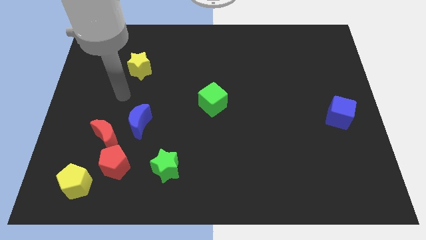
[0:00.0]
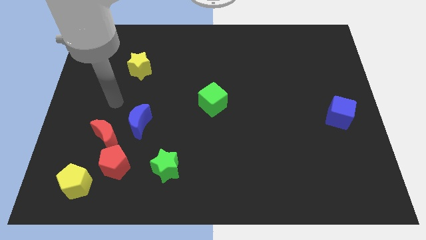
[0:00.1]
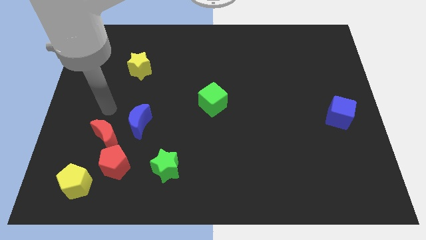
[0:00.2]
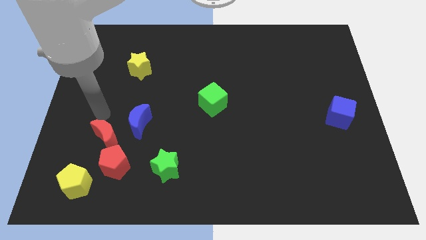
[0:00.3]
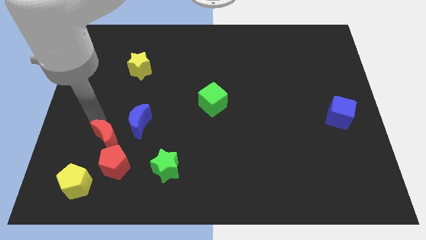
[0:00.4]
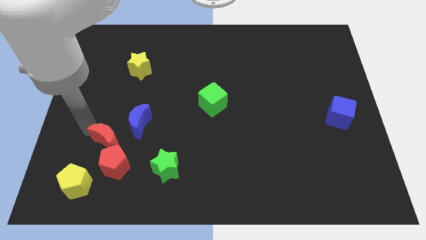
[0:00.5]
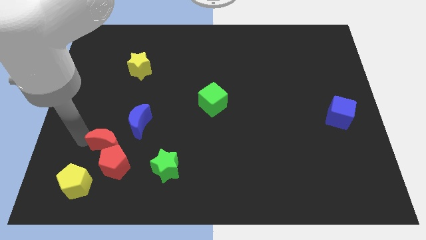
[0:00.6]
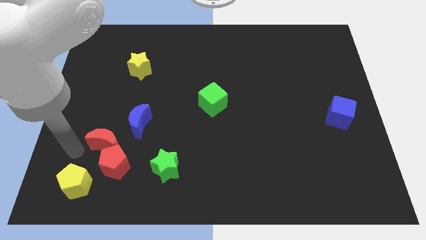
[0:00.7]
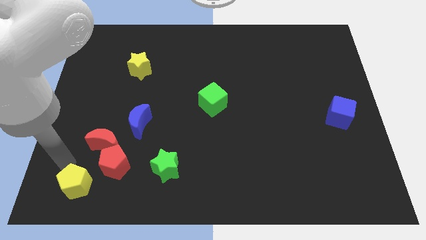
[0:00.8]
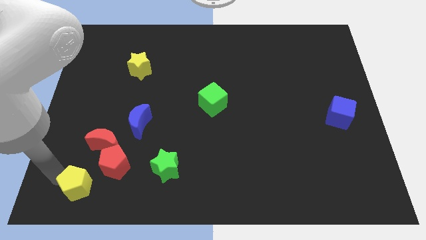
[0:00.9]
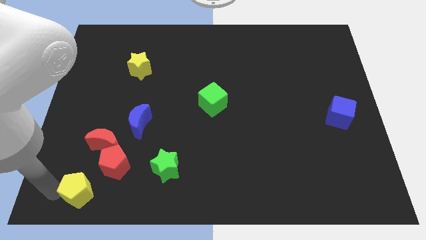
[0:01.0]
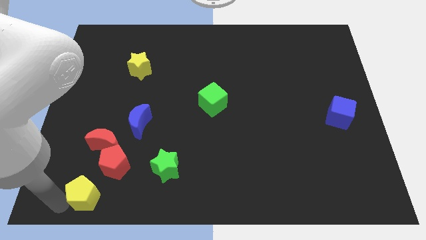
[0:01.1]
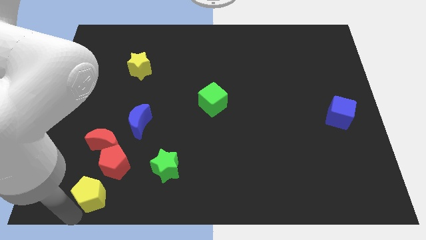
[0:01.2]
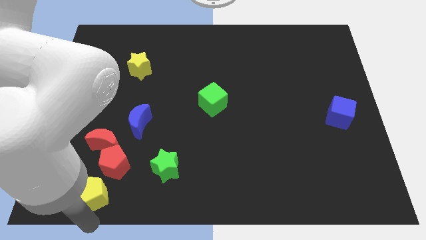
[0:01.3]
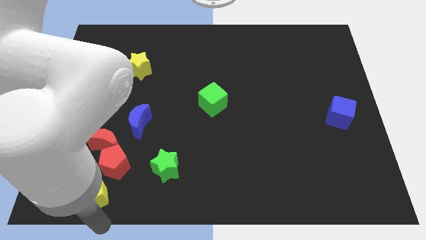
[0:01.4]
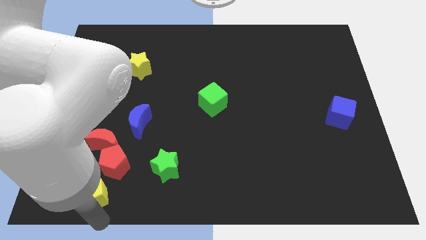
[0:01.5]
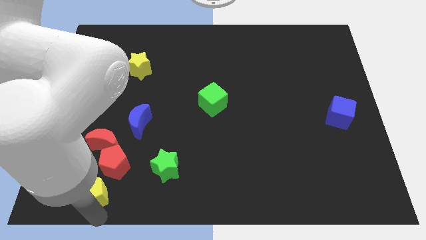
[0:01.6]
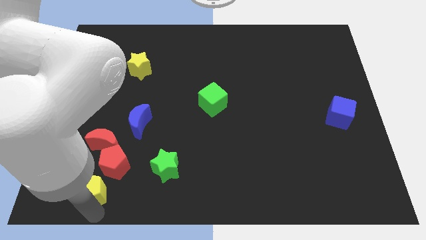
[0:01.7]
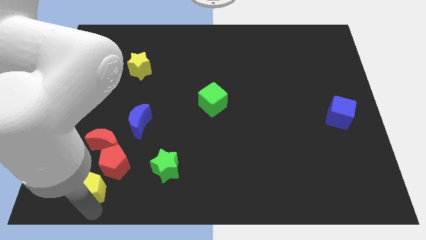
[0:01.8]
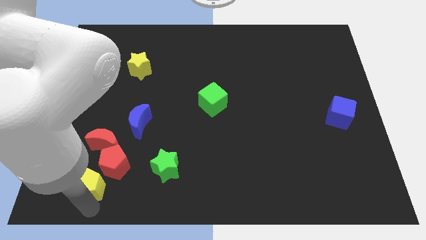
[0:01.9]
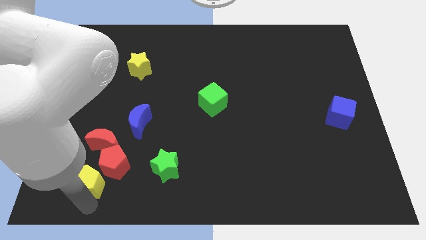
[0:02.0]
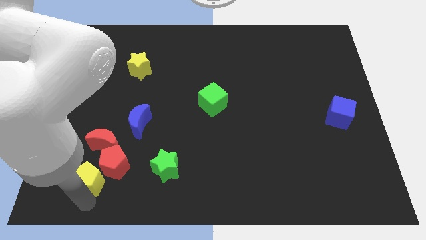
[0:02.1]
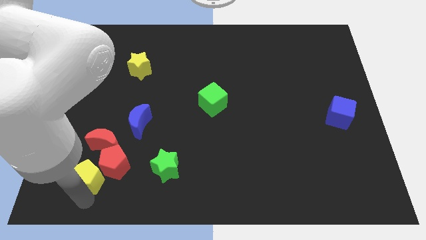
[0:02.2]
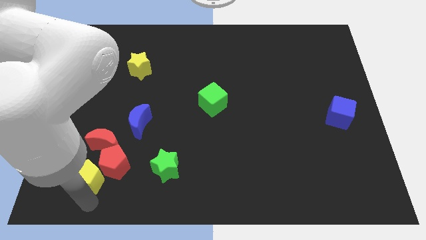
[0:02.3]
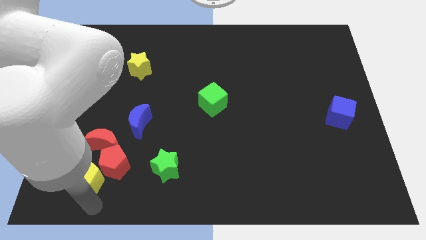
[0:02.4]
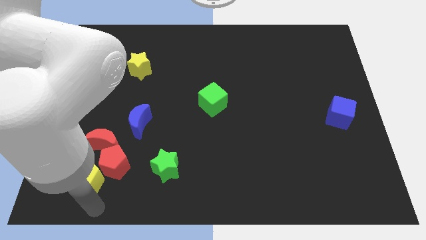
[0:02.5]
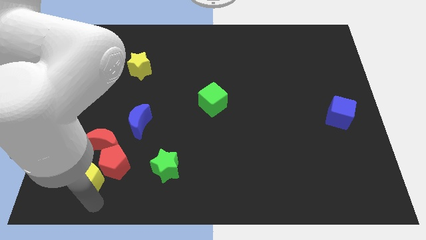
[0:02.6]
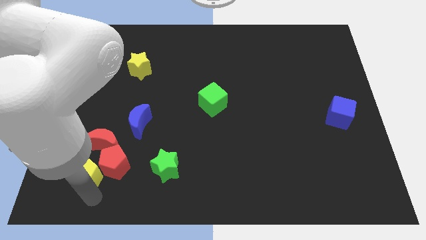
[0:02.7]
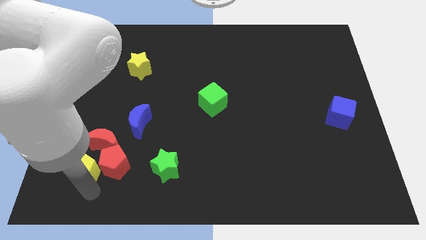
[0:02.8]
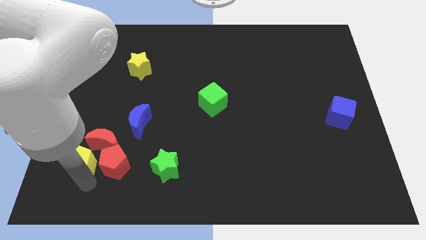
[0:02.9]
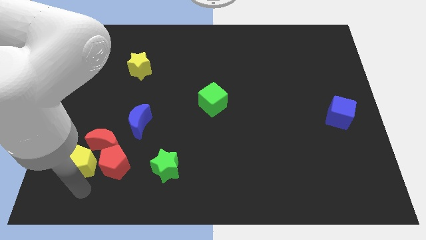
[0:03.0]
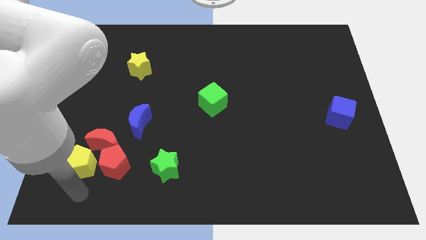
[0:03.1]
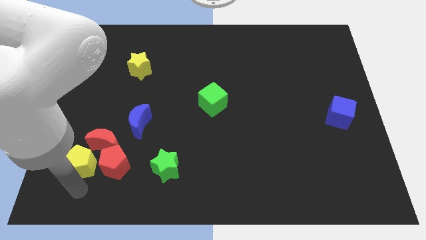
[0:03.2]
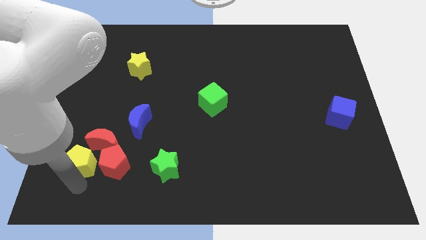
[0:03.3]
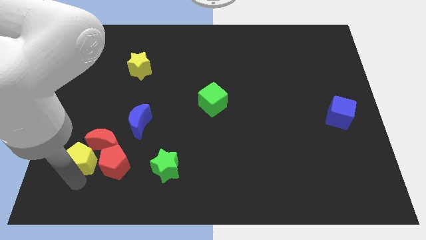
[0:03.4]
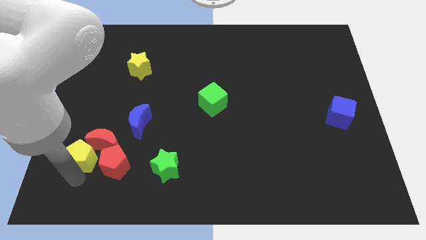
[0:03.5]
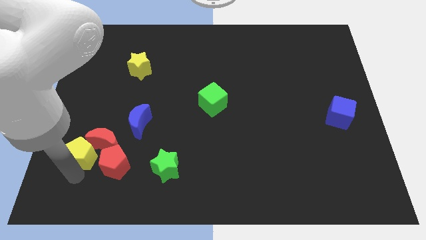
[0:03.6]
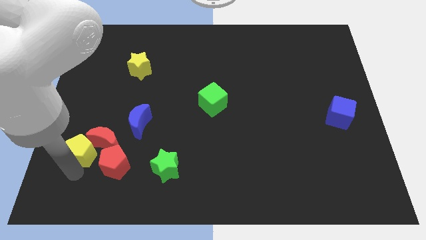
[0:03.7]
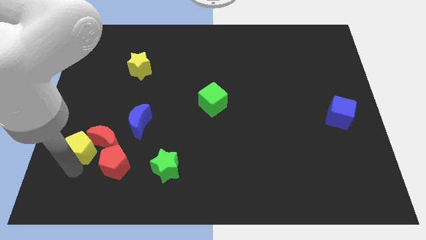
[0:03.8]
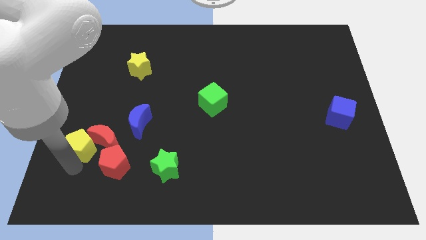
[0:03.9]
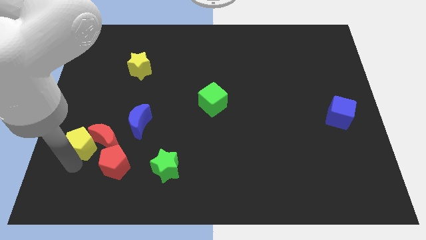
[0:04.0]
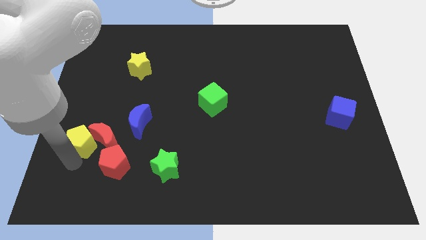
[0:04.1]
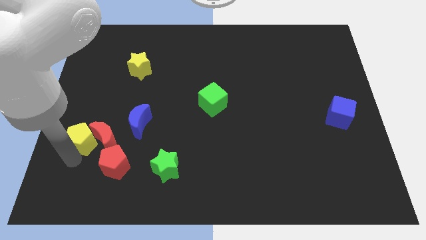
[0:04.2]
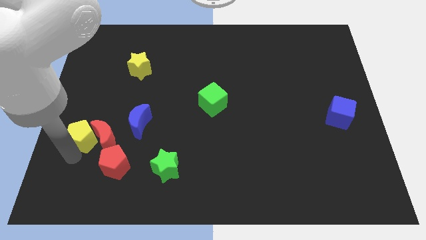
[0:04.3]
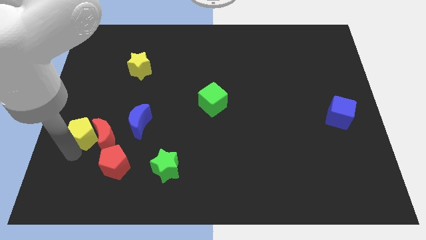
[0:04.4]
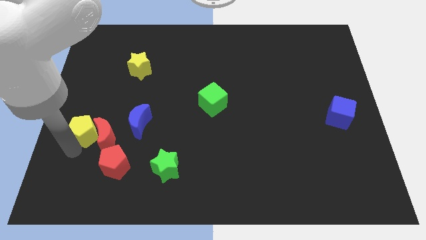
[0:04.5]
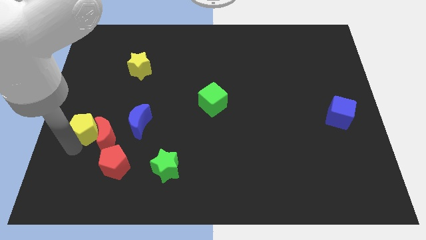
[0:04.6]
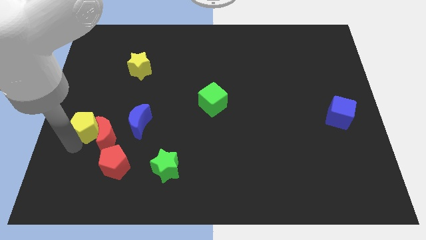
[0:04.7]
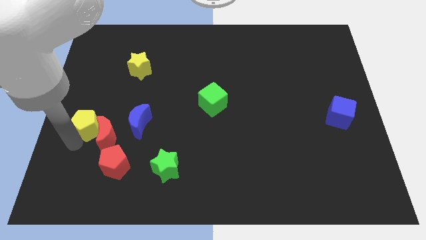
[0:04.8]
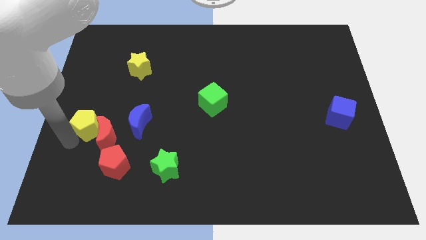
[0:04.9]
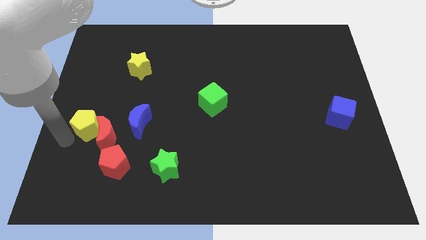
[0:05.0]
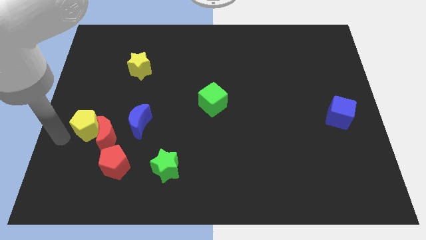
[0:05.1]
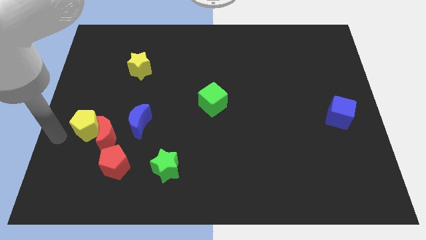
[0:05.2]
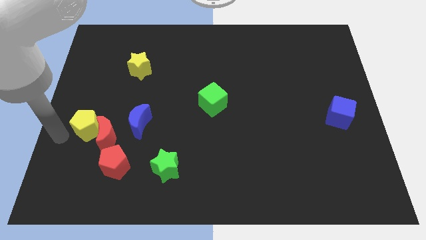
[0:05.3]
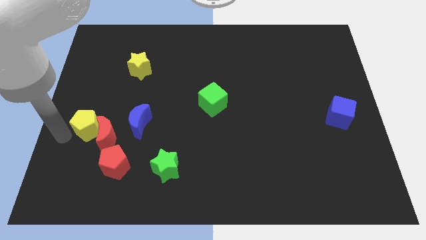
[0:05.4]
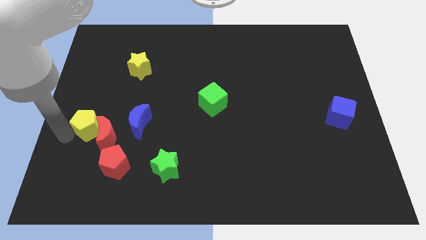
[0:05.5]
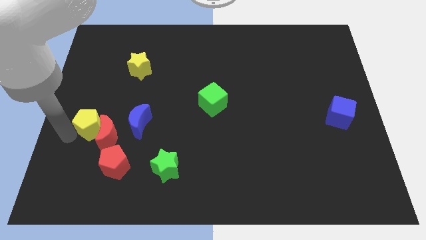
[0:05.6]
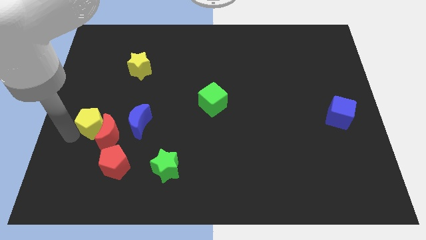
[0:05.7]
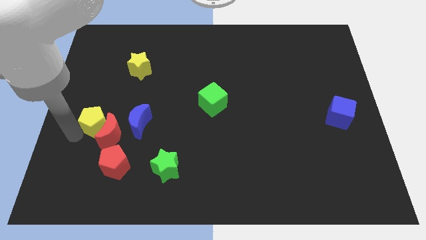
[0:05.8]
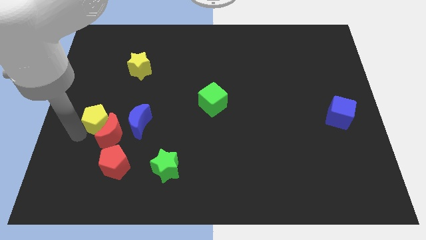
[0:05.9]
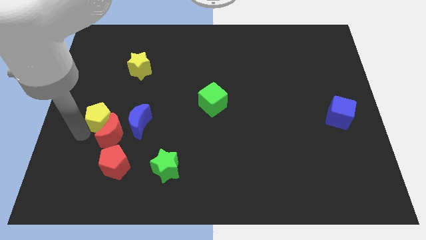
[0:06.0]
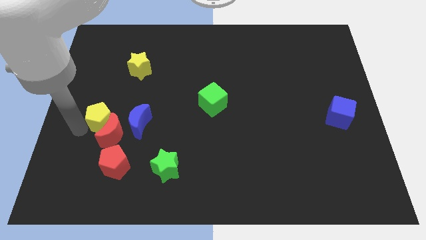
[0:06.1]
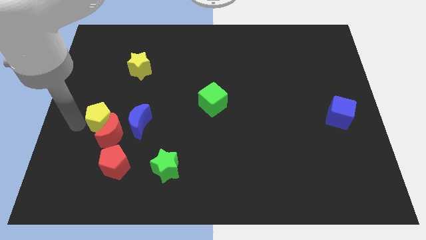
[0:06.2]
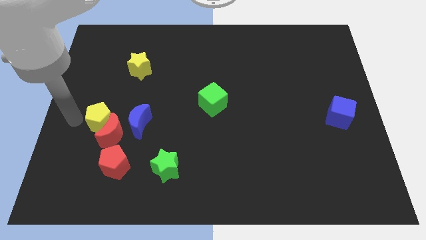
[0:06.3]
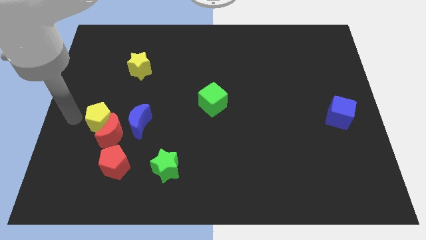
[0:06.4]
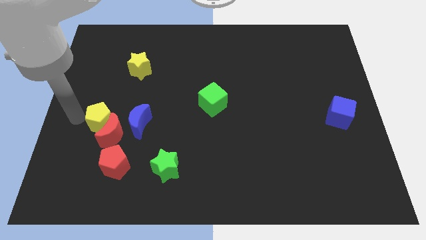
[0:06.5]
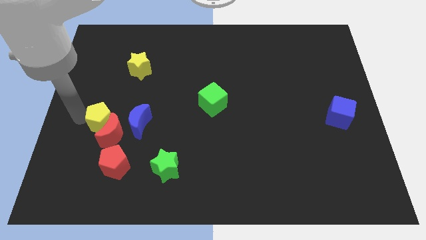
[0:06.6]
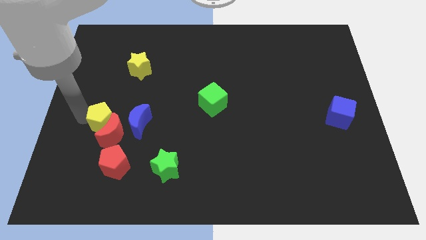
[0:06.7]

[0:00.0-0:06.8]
slide the yellow pentagon above the red pentagon
